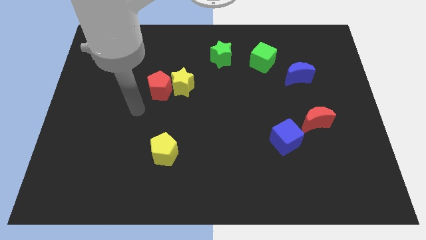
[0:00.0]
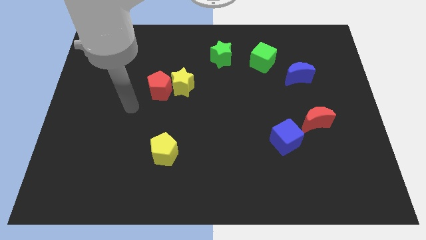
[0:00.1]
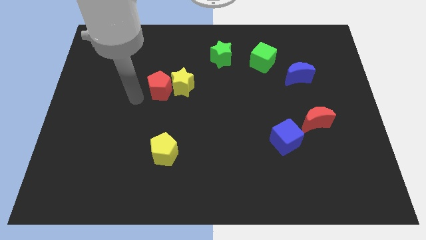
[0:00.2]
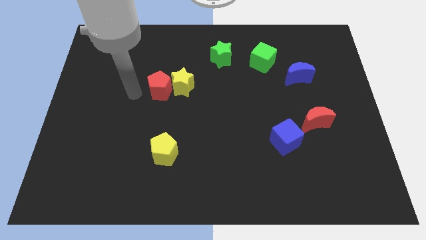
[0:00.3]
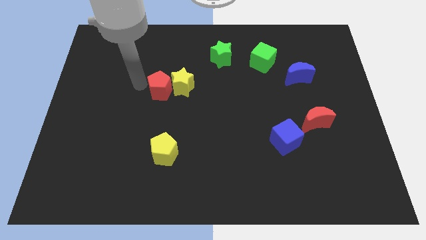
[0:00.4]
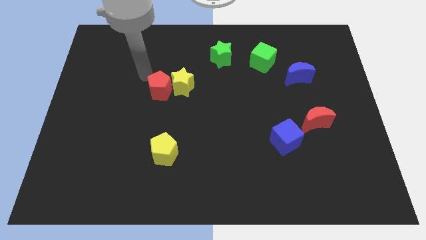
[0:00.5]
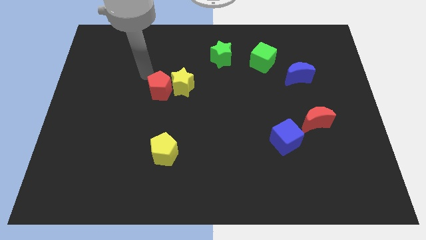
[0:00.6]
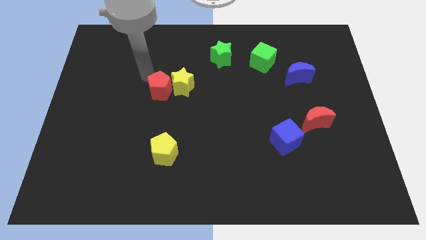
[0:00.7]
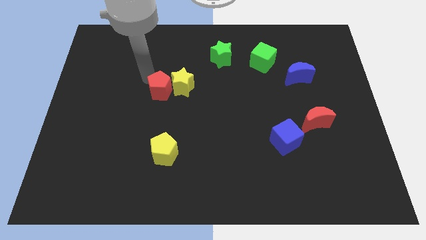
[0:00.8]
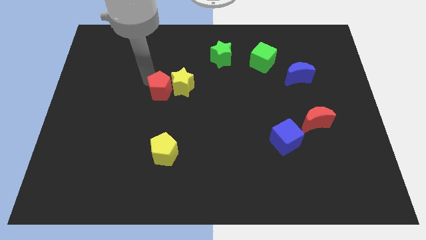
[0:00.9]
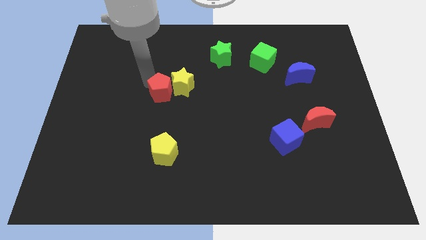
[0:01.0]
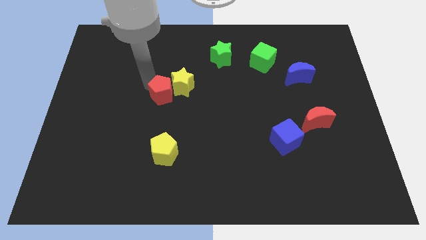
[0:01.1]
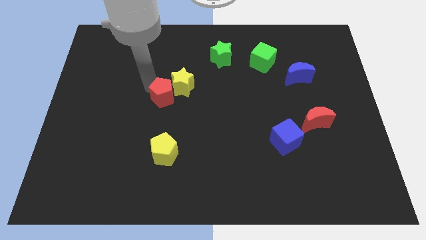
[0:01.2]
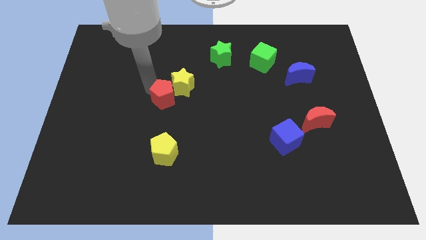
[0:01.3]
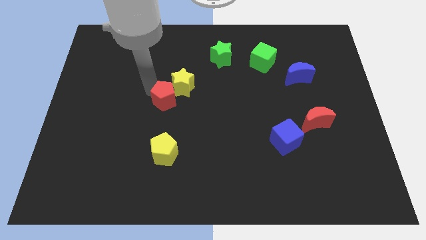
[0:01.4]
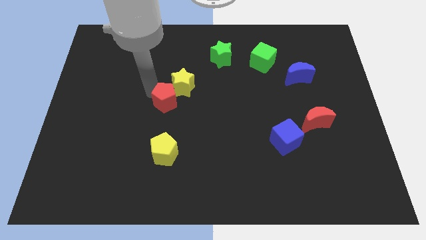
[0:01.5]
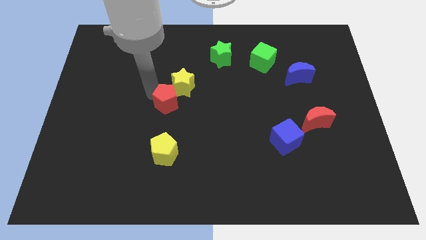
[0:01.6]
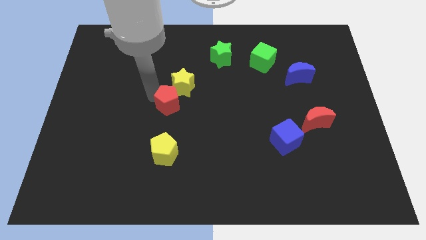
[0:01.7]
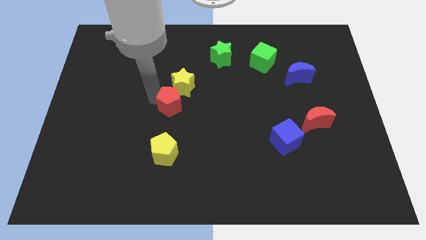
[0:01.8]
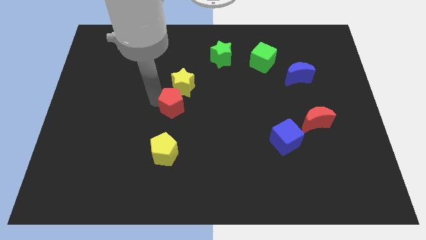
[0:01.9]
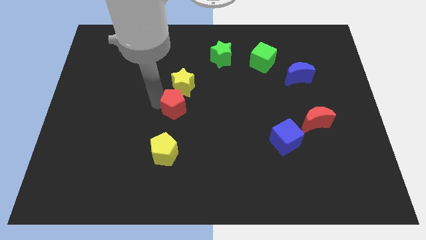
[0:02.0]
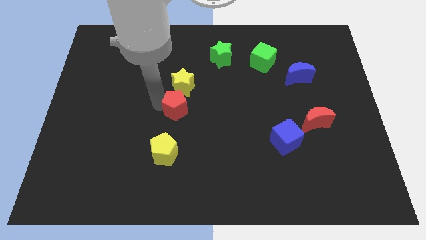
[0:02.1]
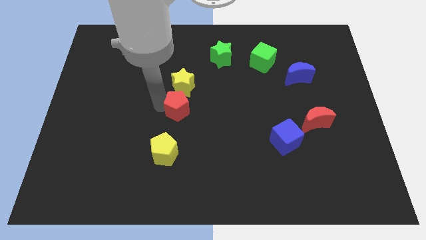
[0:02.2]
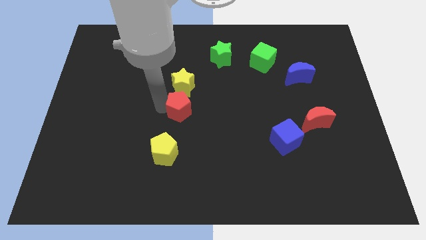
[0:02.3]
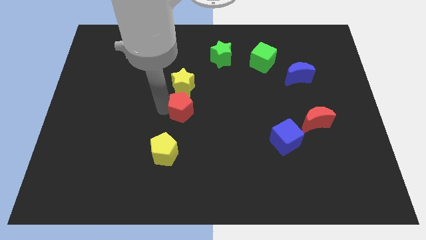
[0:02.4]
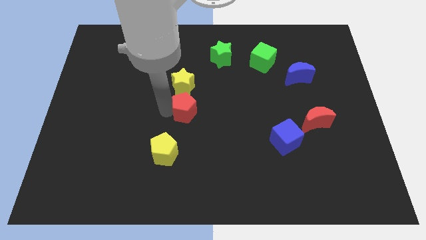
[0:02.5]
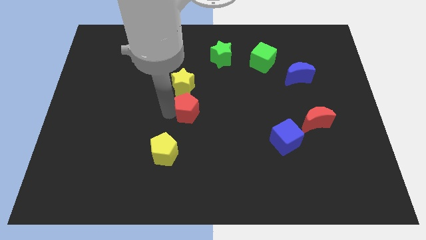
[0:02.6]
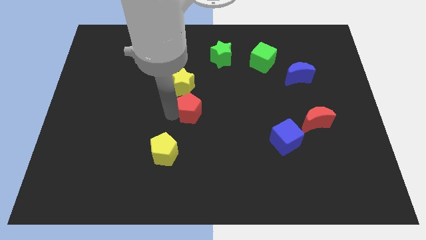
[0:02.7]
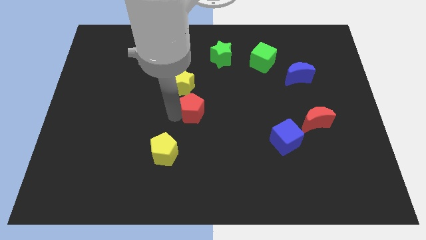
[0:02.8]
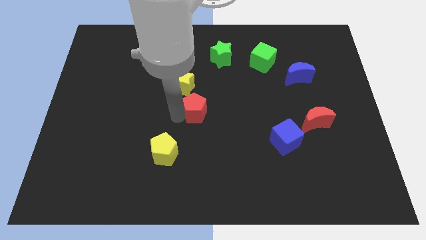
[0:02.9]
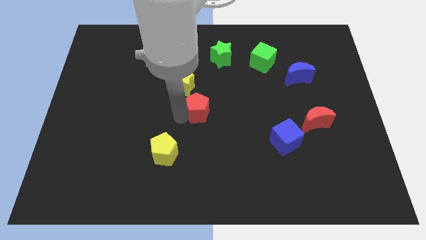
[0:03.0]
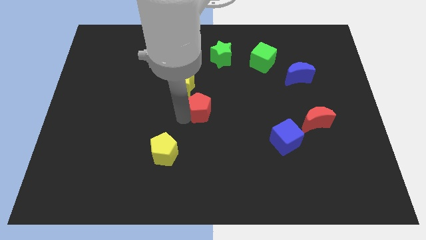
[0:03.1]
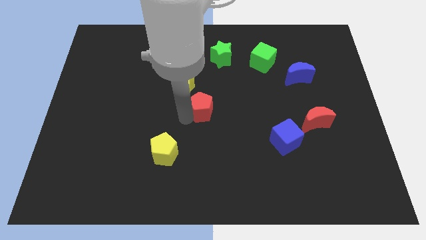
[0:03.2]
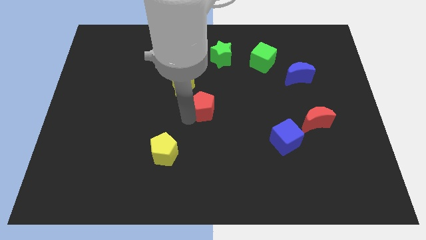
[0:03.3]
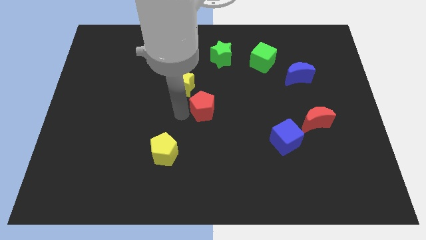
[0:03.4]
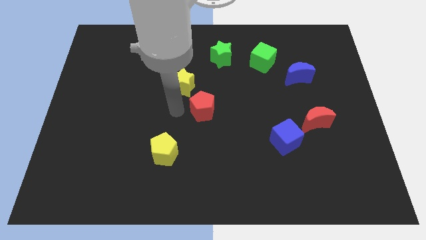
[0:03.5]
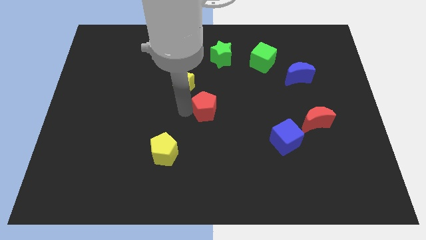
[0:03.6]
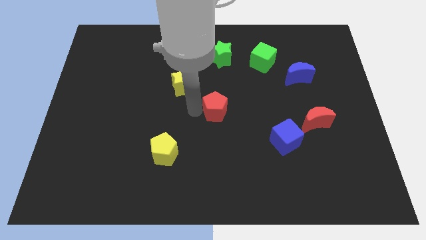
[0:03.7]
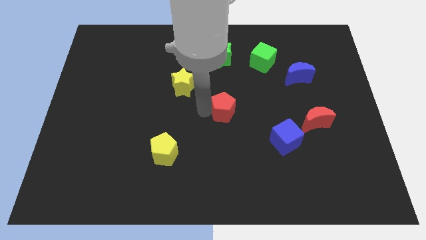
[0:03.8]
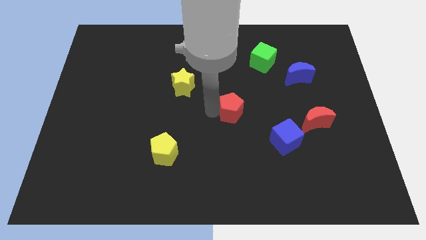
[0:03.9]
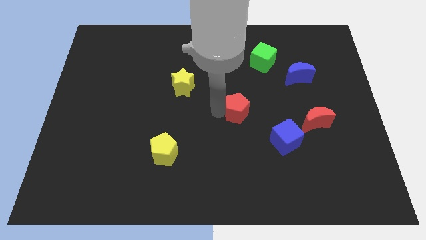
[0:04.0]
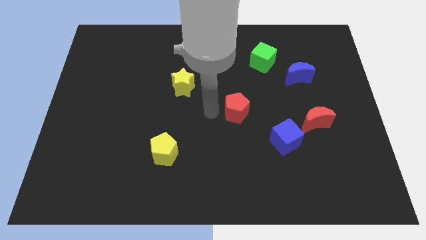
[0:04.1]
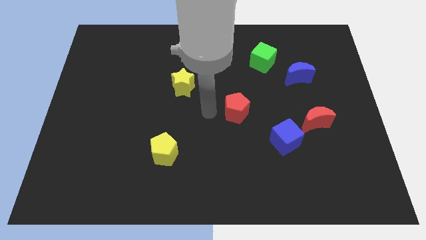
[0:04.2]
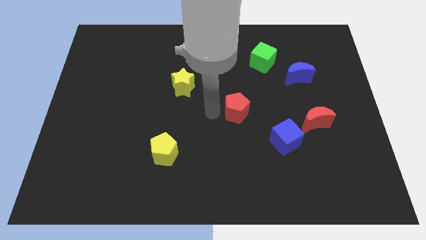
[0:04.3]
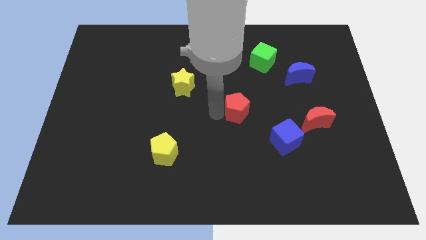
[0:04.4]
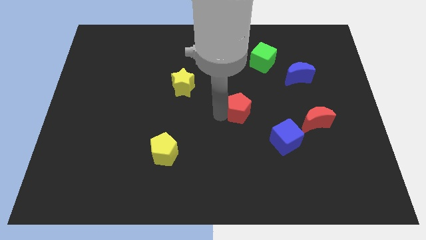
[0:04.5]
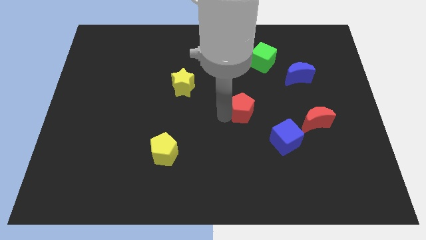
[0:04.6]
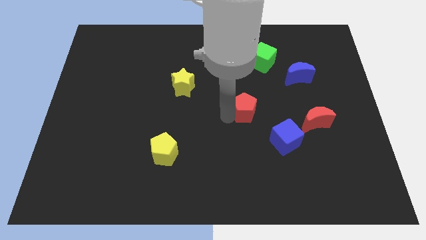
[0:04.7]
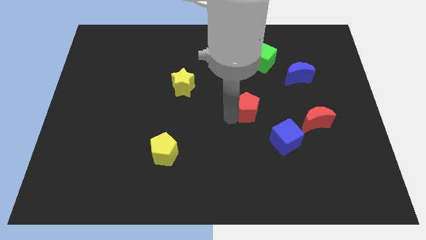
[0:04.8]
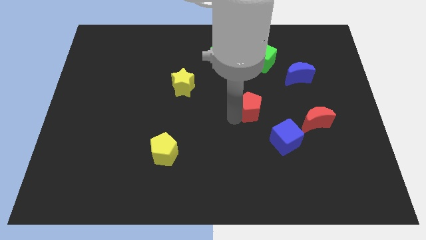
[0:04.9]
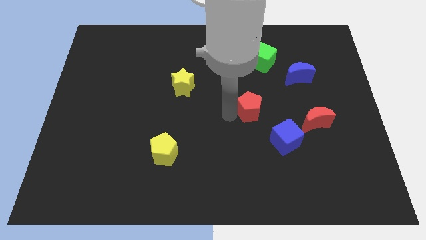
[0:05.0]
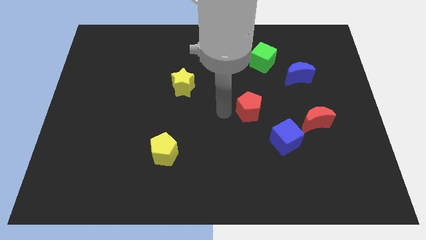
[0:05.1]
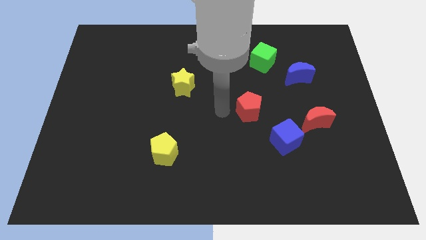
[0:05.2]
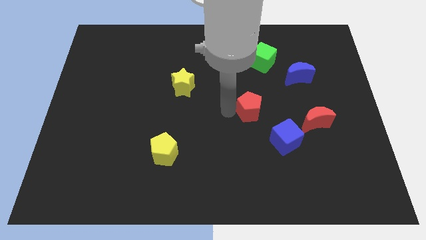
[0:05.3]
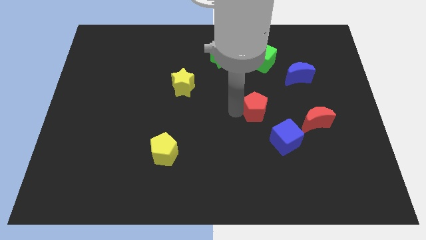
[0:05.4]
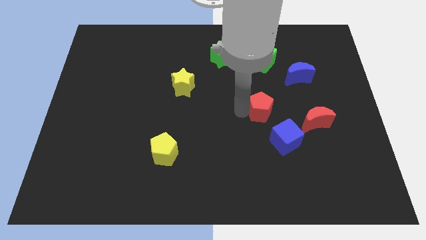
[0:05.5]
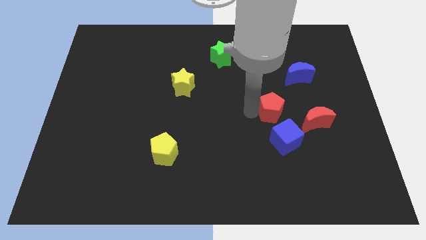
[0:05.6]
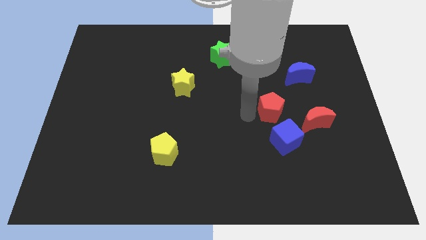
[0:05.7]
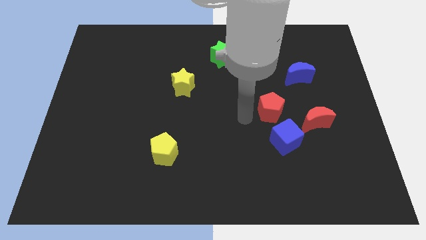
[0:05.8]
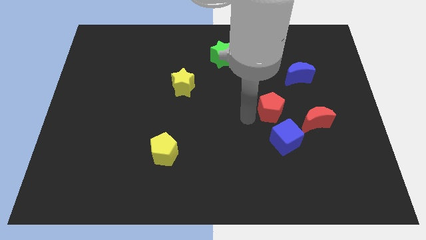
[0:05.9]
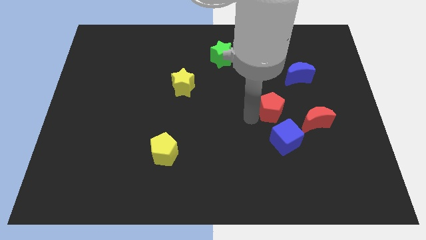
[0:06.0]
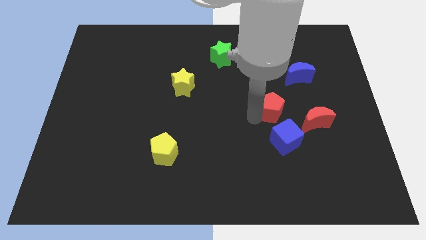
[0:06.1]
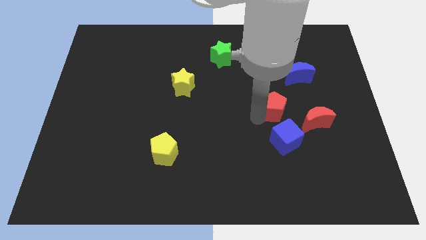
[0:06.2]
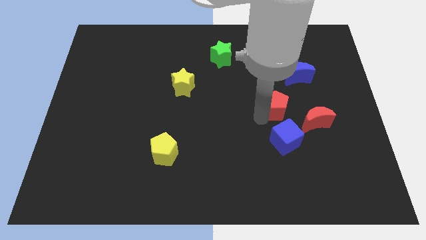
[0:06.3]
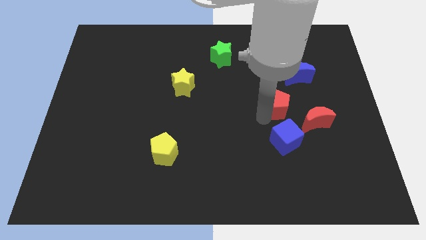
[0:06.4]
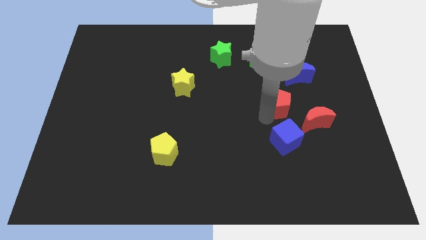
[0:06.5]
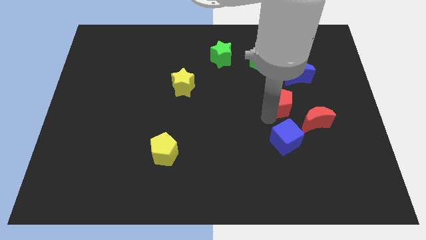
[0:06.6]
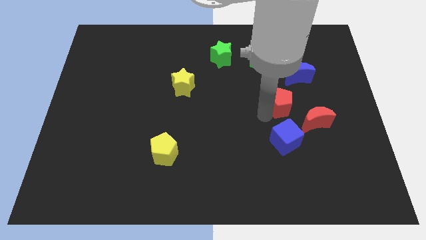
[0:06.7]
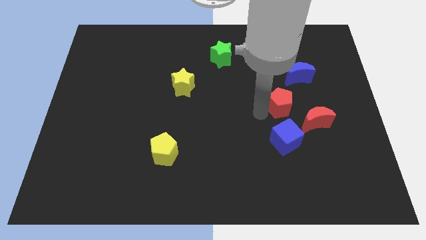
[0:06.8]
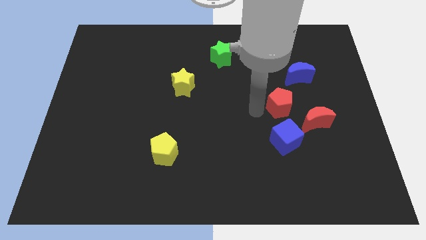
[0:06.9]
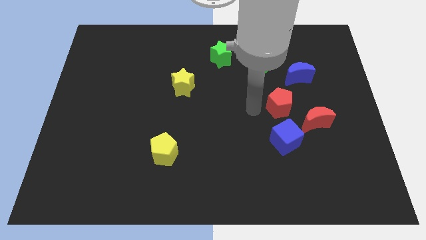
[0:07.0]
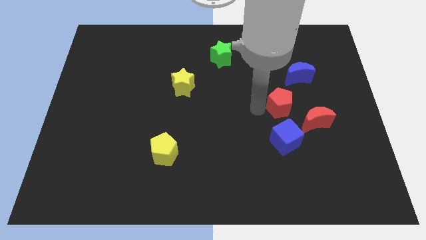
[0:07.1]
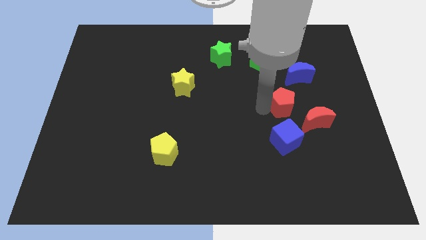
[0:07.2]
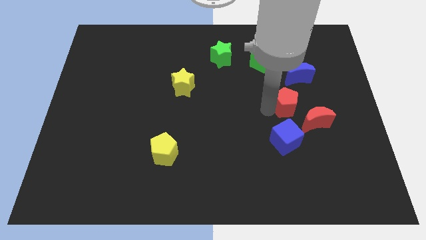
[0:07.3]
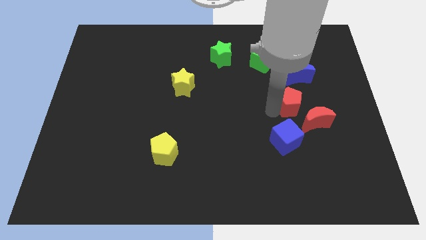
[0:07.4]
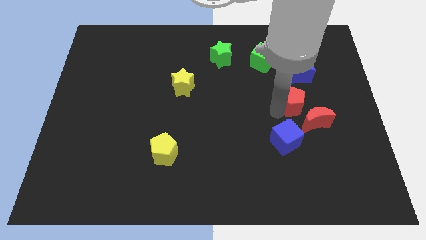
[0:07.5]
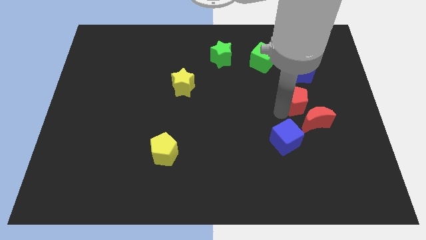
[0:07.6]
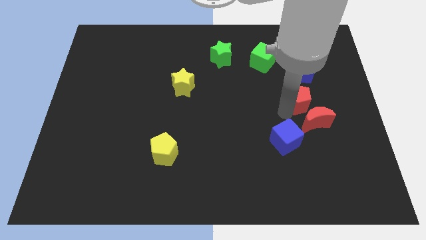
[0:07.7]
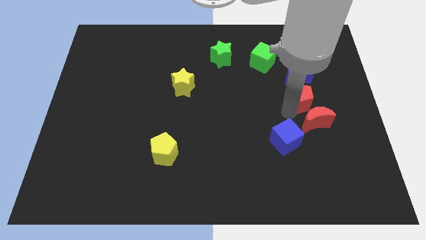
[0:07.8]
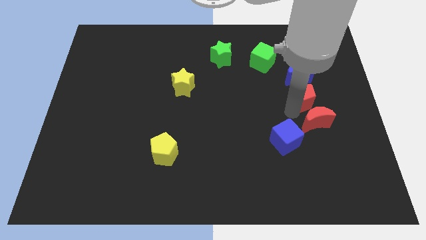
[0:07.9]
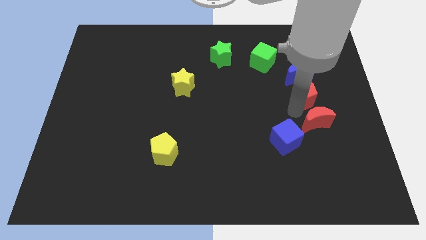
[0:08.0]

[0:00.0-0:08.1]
put the red pentagon to the bottom right side of the blue moon
